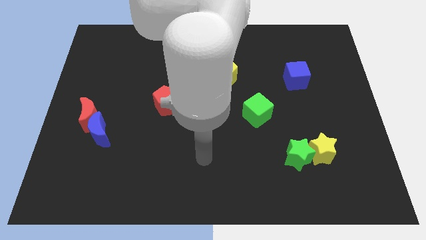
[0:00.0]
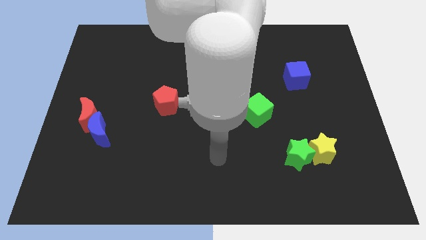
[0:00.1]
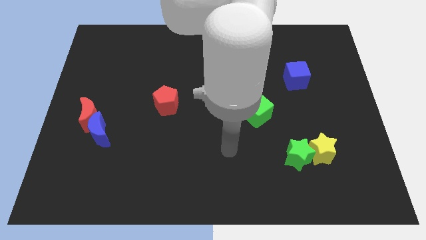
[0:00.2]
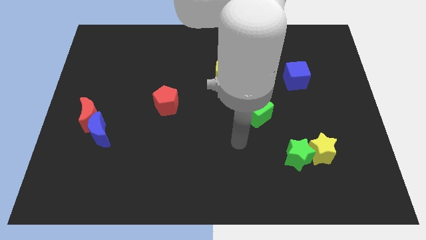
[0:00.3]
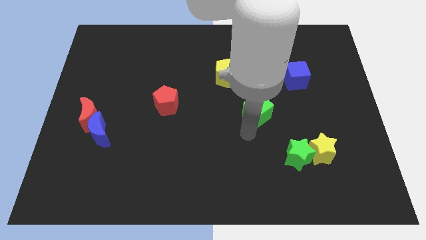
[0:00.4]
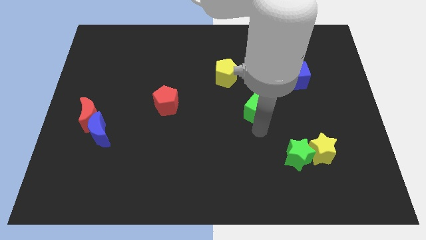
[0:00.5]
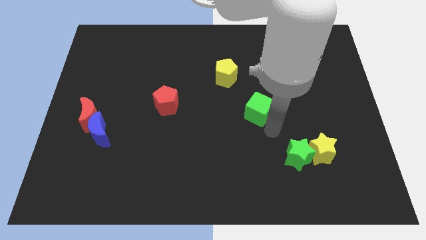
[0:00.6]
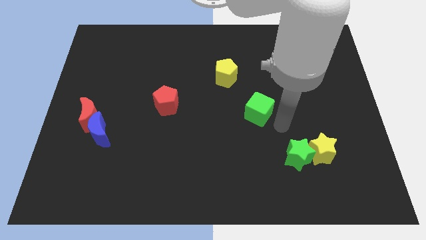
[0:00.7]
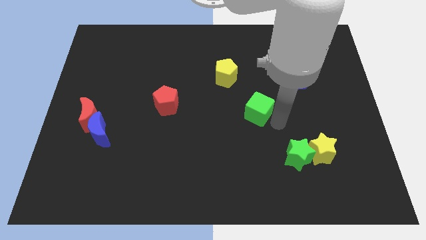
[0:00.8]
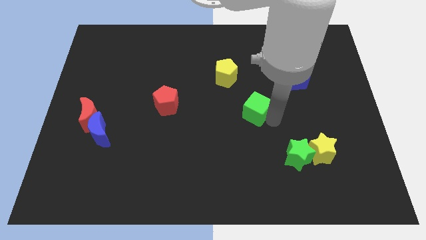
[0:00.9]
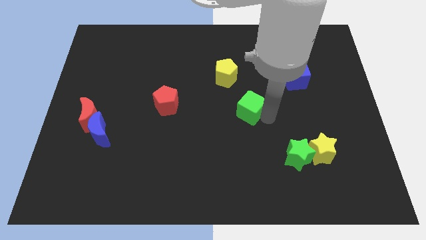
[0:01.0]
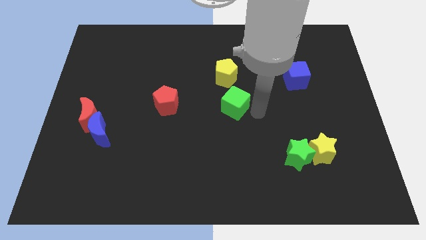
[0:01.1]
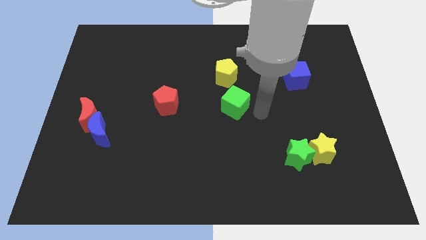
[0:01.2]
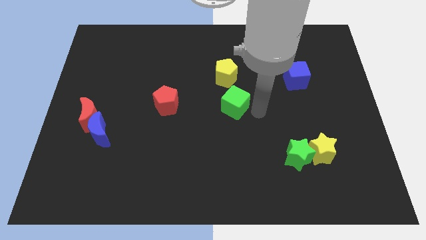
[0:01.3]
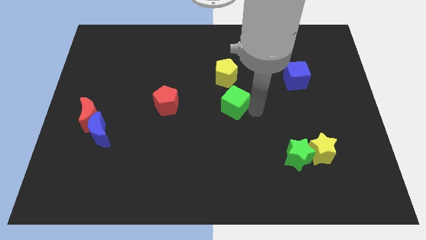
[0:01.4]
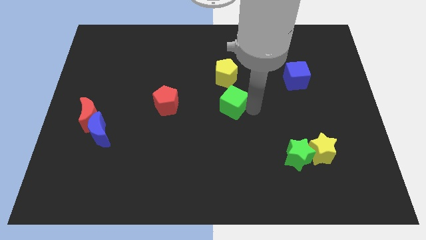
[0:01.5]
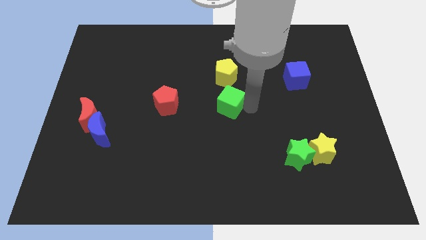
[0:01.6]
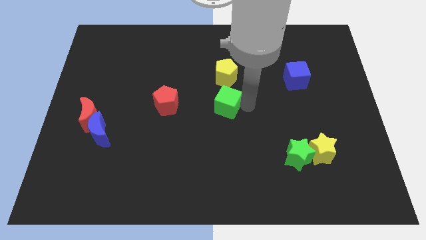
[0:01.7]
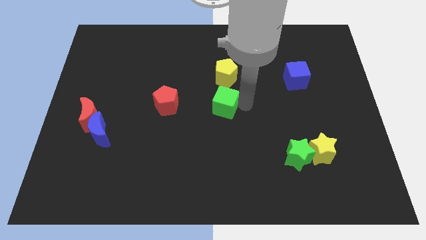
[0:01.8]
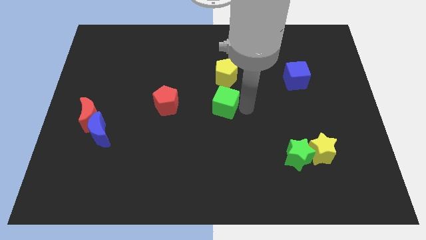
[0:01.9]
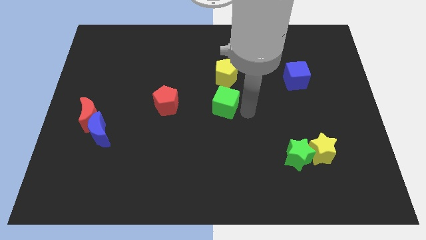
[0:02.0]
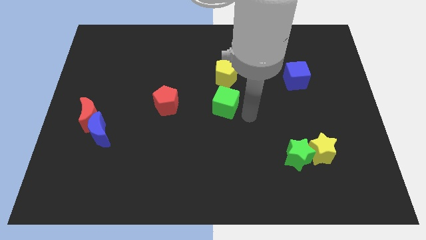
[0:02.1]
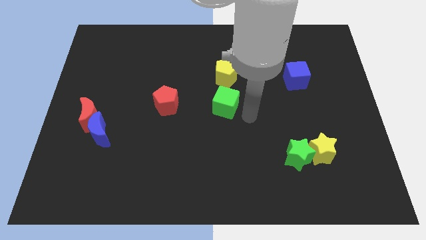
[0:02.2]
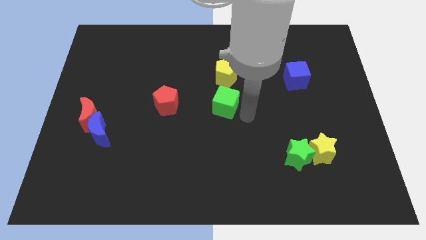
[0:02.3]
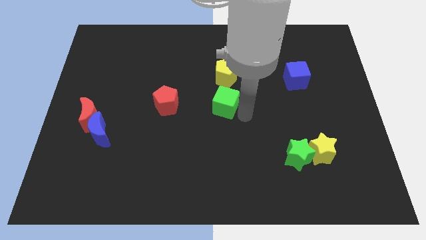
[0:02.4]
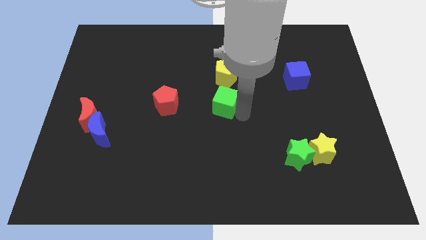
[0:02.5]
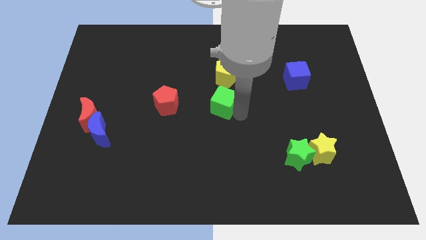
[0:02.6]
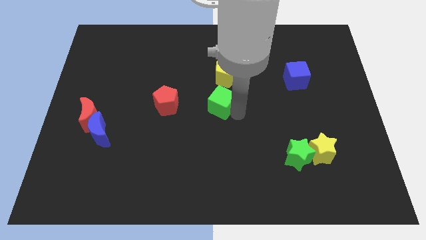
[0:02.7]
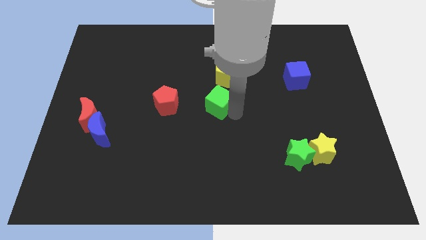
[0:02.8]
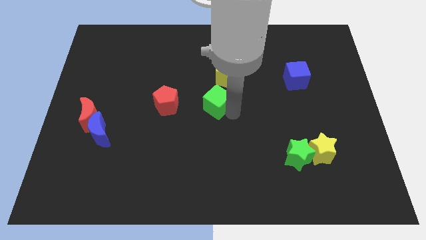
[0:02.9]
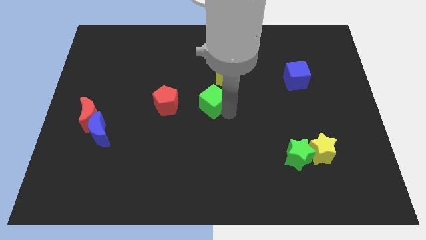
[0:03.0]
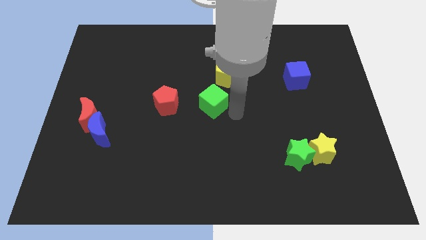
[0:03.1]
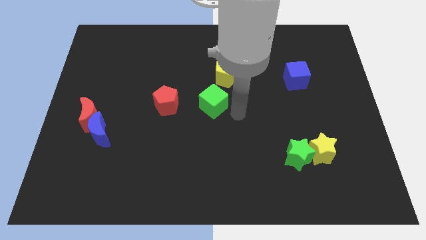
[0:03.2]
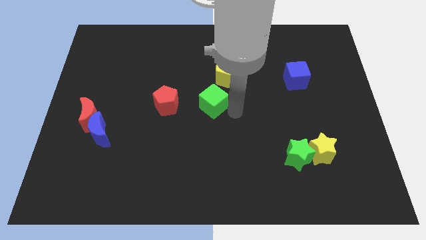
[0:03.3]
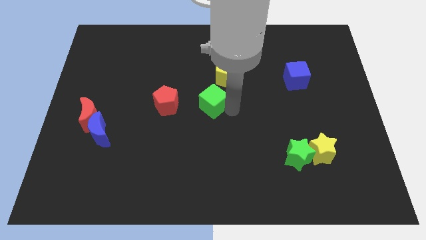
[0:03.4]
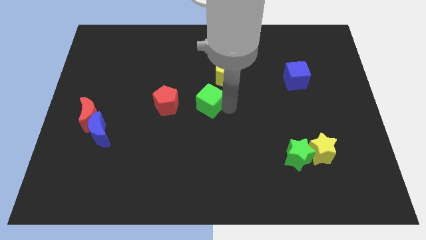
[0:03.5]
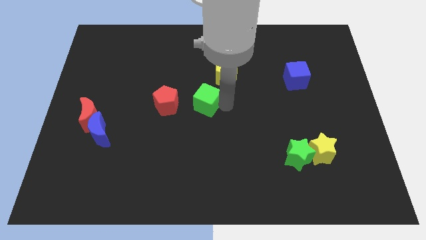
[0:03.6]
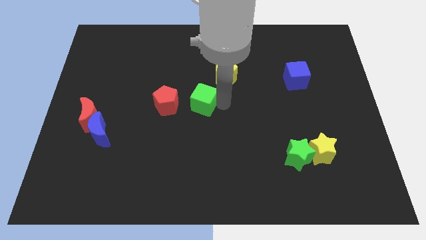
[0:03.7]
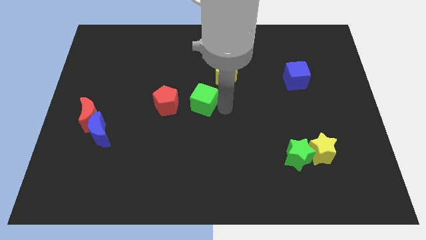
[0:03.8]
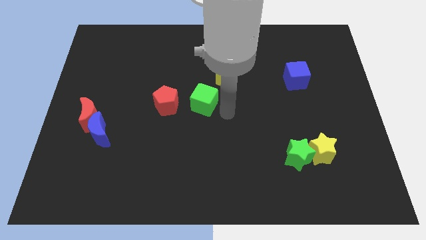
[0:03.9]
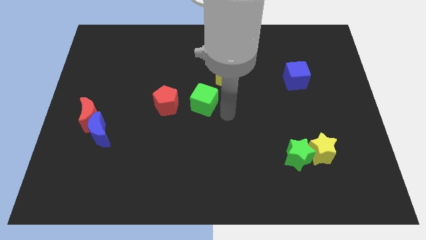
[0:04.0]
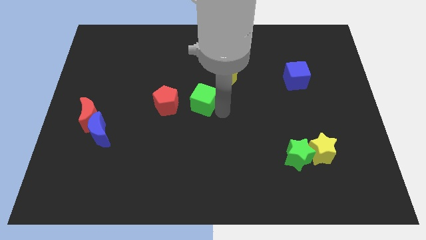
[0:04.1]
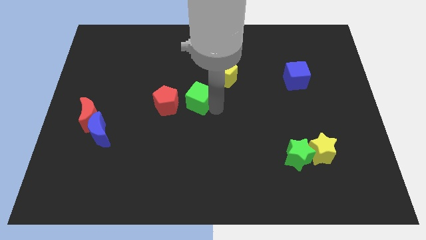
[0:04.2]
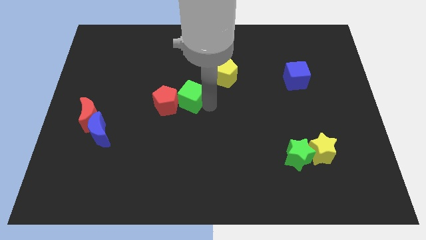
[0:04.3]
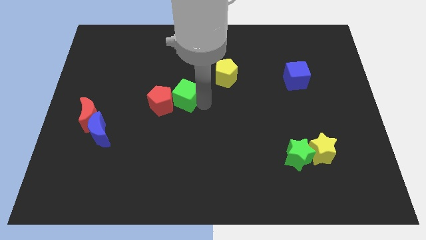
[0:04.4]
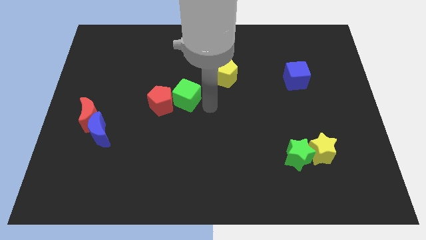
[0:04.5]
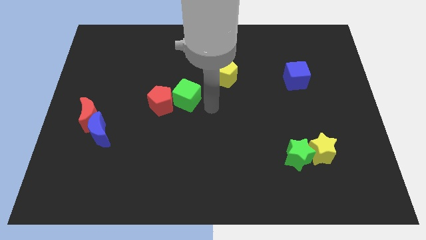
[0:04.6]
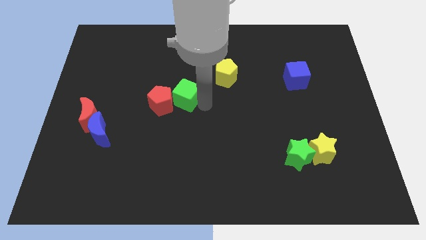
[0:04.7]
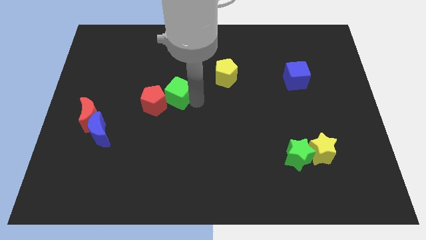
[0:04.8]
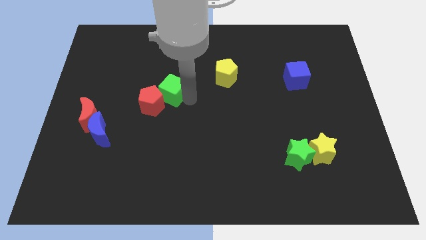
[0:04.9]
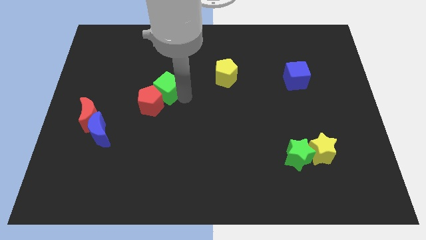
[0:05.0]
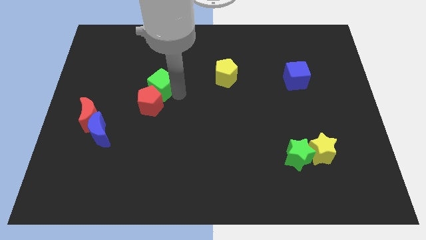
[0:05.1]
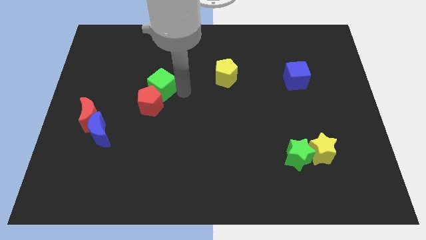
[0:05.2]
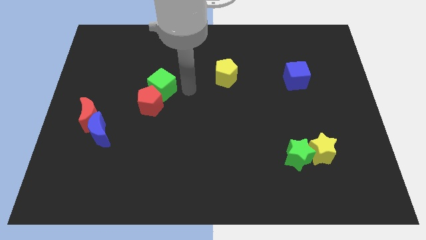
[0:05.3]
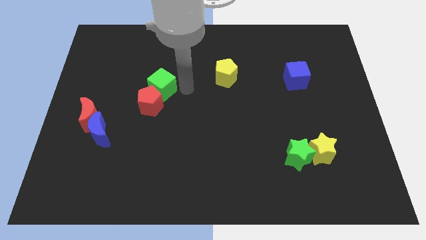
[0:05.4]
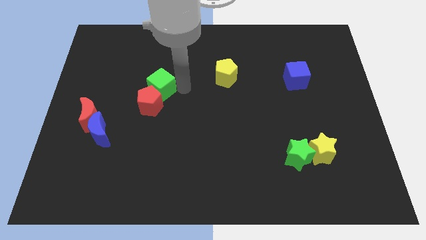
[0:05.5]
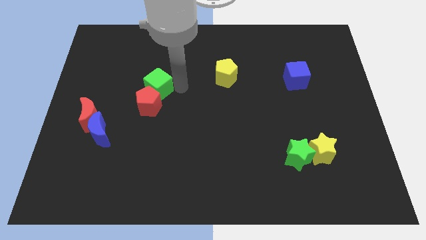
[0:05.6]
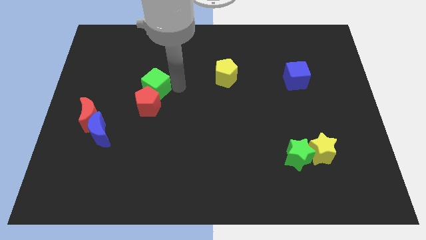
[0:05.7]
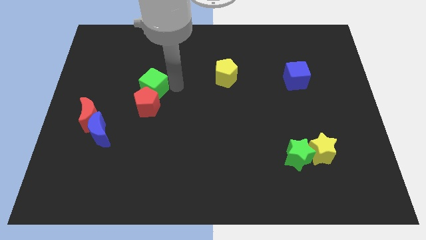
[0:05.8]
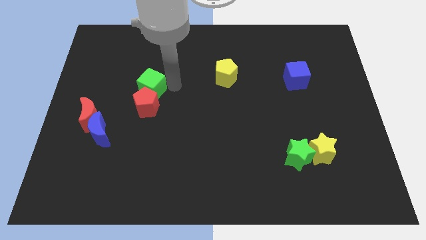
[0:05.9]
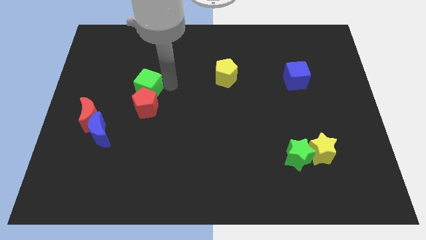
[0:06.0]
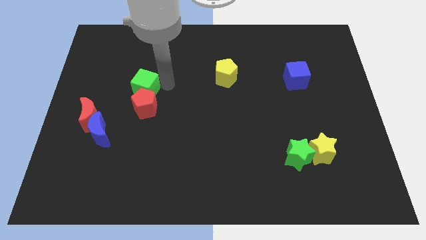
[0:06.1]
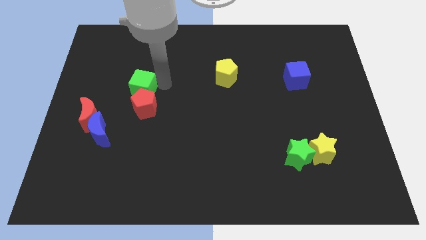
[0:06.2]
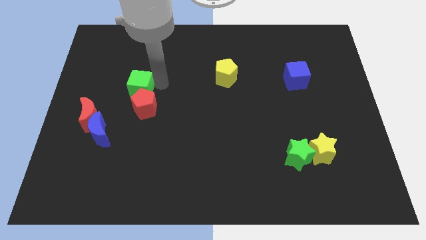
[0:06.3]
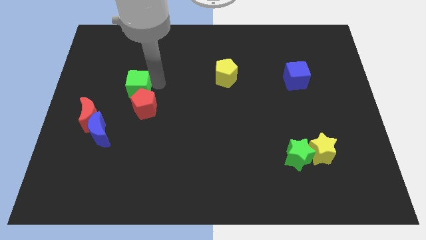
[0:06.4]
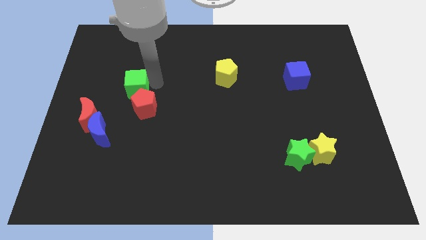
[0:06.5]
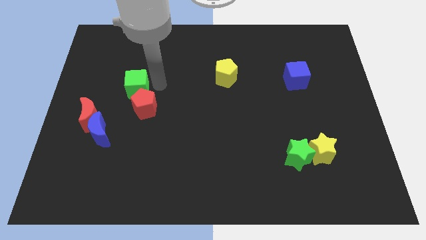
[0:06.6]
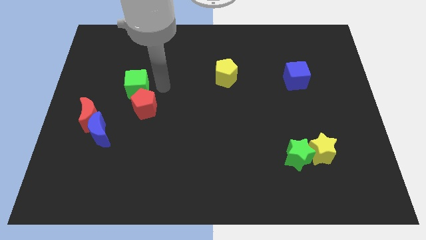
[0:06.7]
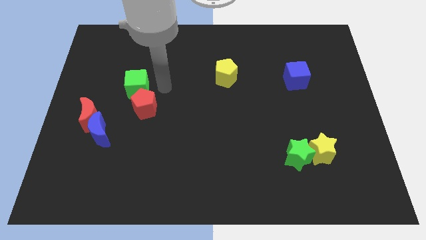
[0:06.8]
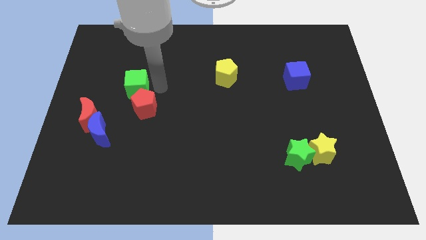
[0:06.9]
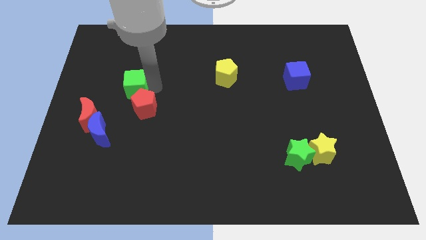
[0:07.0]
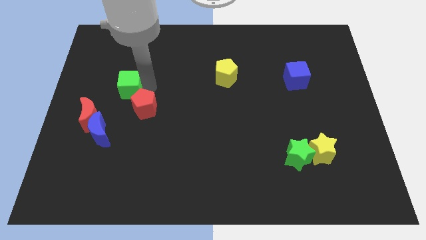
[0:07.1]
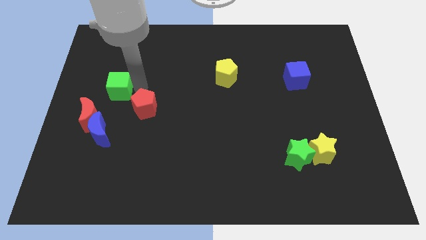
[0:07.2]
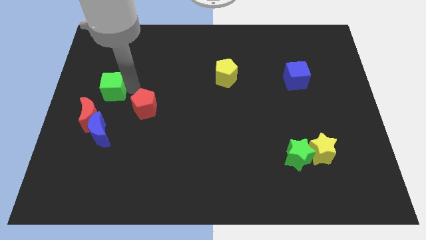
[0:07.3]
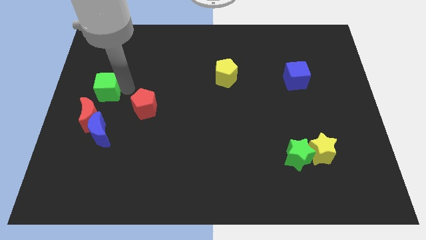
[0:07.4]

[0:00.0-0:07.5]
put the green cube to the center left
